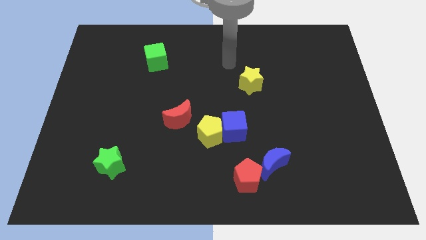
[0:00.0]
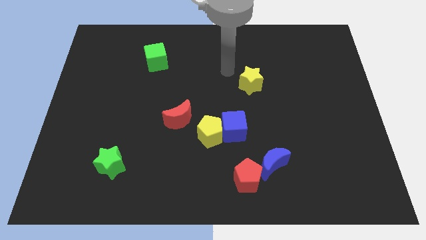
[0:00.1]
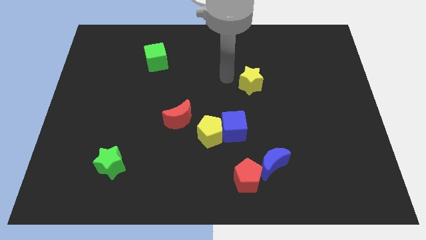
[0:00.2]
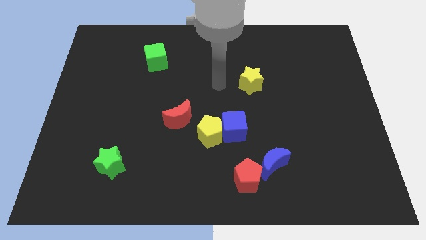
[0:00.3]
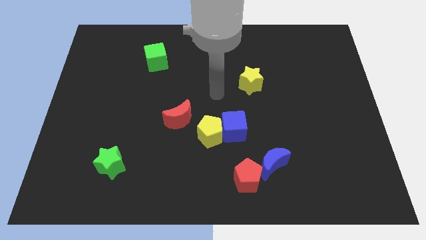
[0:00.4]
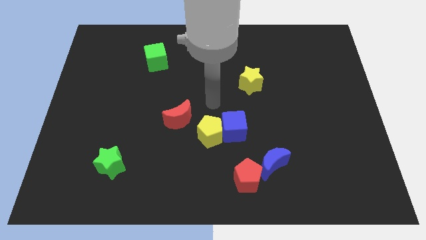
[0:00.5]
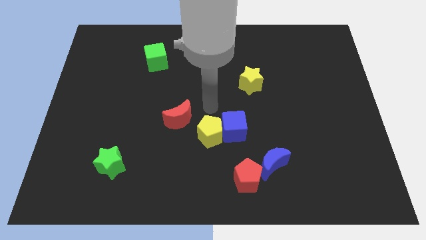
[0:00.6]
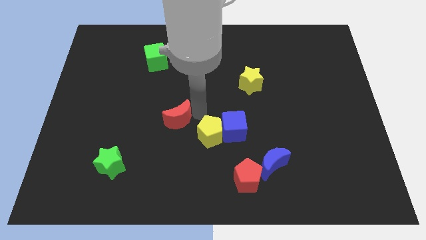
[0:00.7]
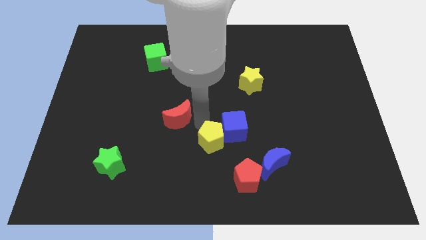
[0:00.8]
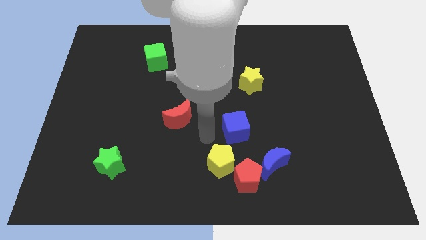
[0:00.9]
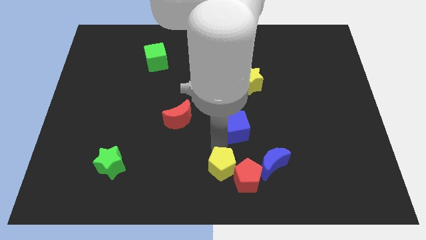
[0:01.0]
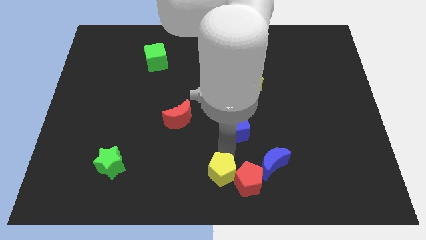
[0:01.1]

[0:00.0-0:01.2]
pull the blue cube apart from the yellow pentagon

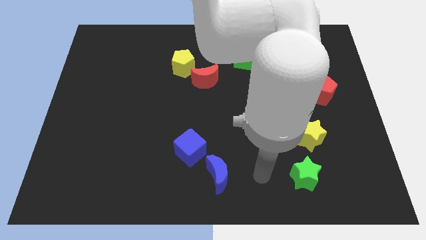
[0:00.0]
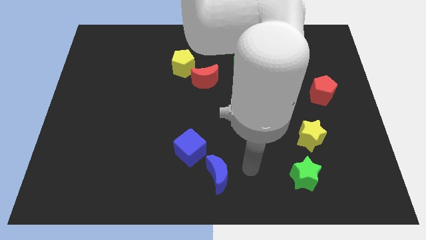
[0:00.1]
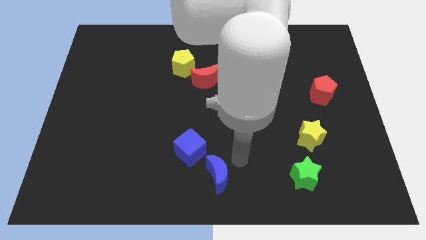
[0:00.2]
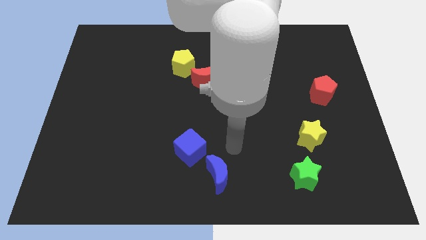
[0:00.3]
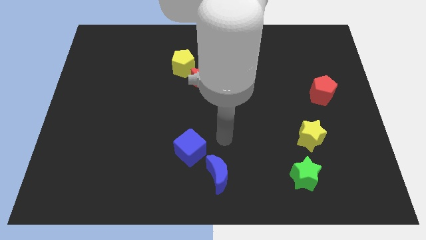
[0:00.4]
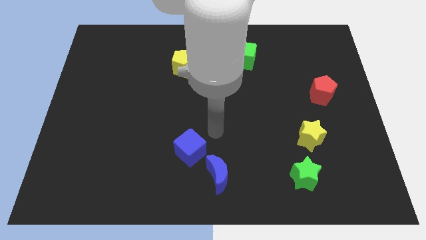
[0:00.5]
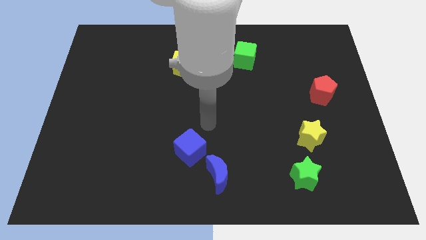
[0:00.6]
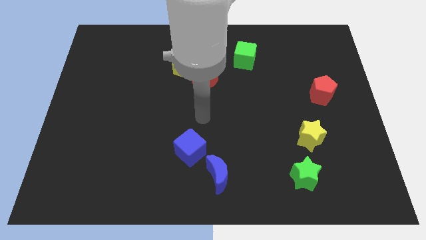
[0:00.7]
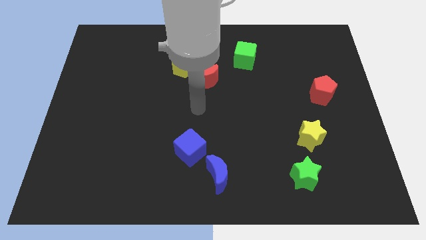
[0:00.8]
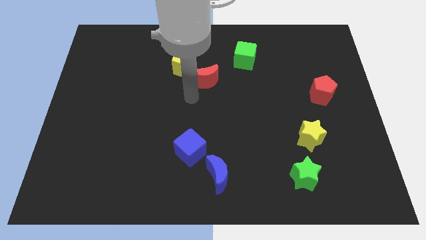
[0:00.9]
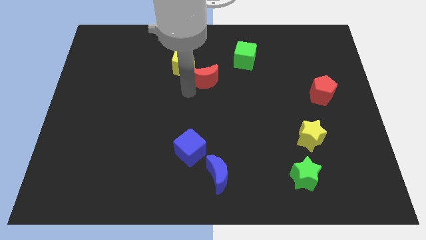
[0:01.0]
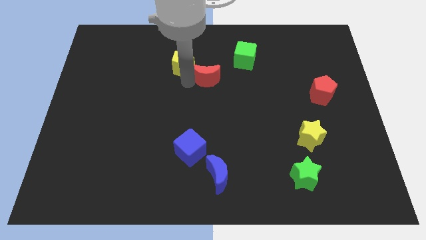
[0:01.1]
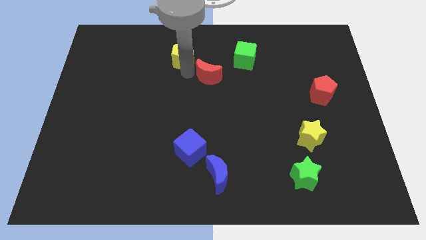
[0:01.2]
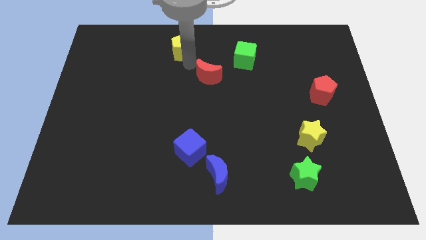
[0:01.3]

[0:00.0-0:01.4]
move the red moon away from the yellow pentagon

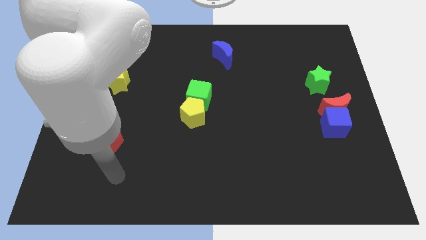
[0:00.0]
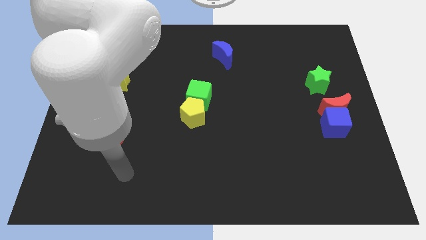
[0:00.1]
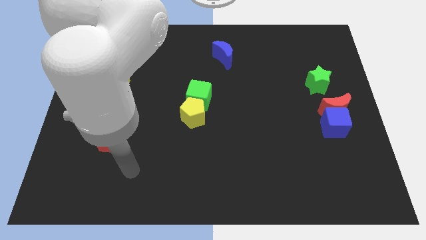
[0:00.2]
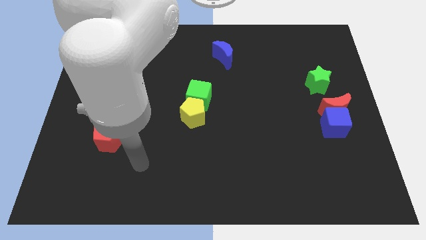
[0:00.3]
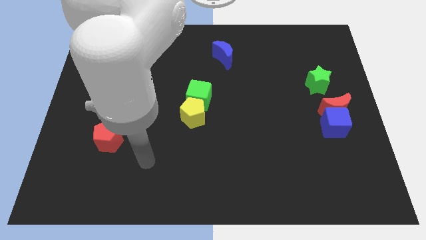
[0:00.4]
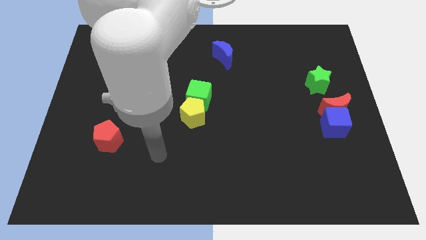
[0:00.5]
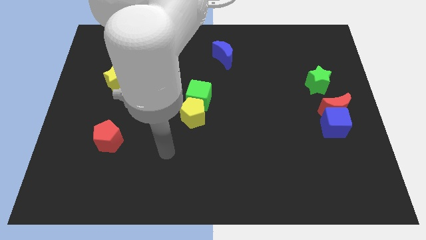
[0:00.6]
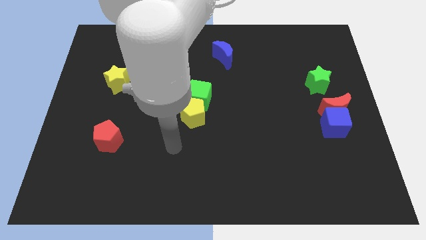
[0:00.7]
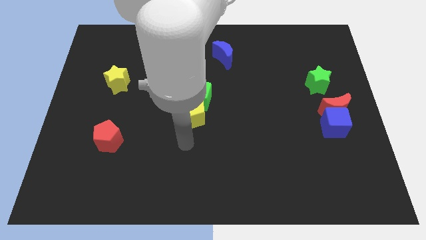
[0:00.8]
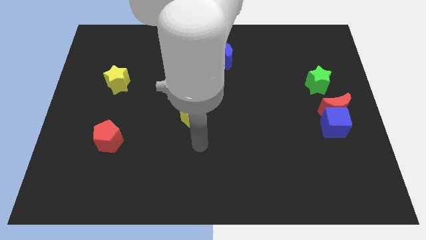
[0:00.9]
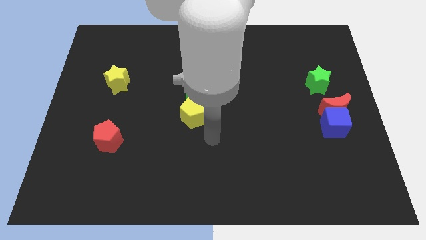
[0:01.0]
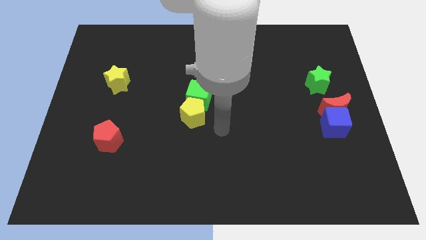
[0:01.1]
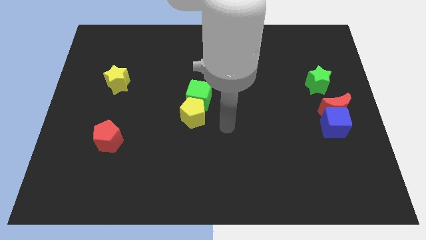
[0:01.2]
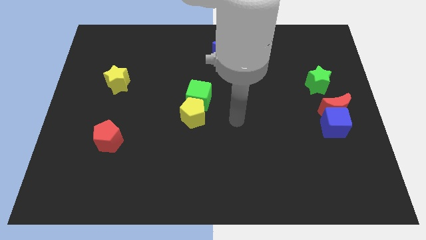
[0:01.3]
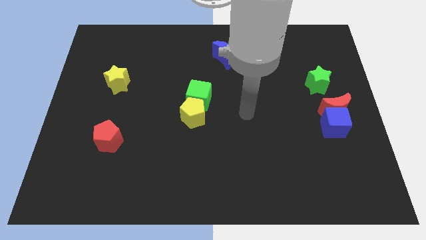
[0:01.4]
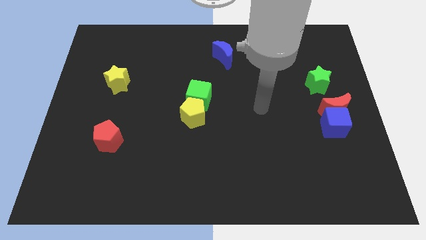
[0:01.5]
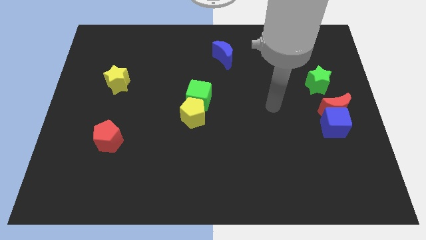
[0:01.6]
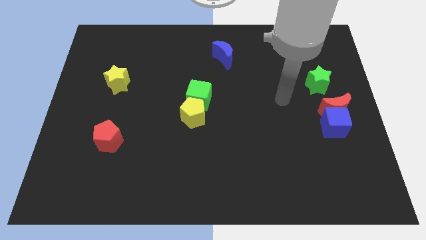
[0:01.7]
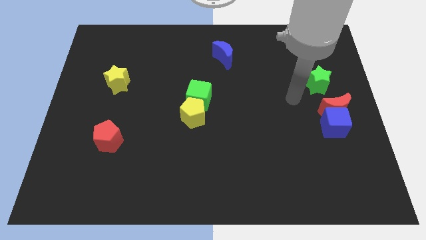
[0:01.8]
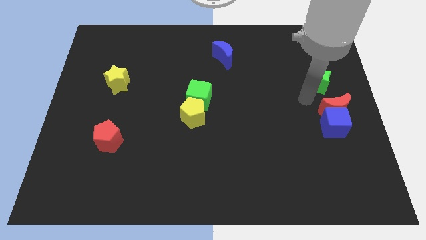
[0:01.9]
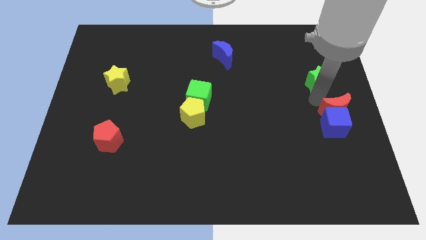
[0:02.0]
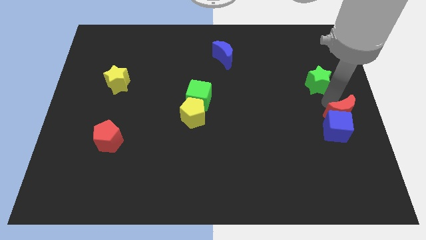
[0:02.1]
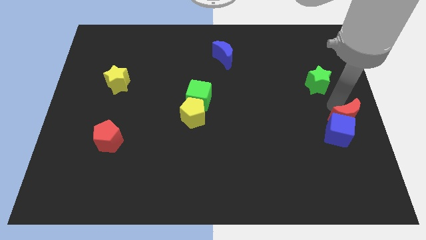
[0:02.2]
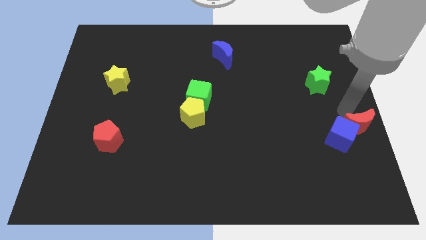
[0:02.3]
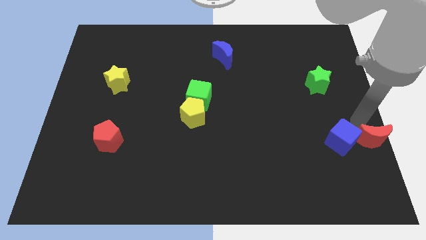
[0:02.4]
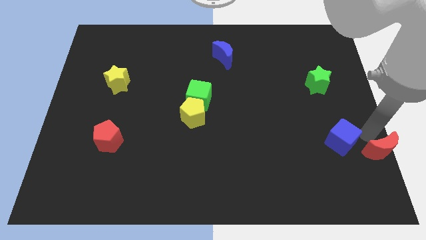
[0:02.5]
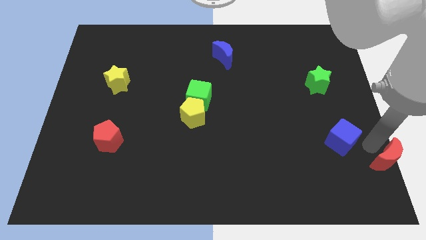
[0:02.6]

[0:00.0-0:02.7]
move the blue cube away from the red moon

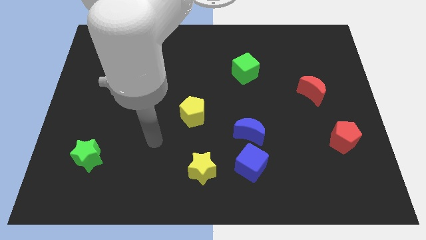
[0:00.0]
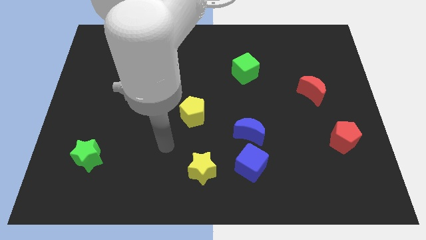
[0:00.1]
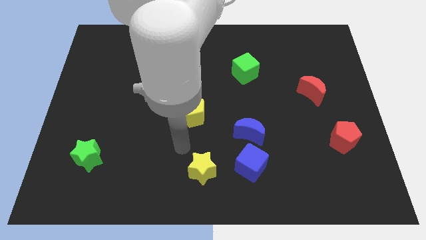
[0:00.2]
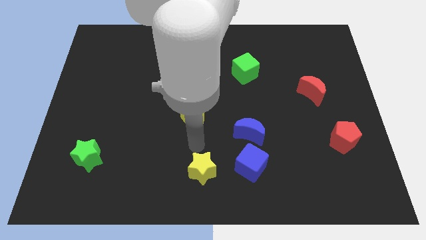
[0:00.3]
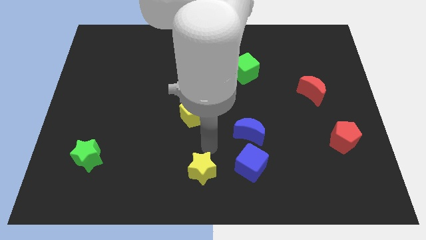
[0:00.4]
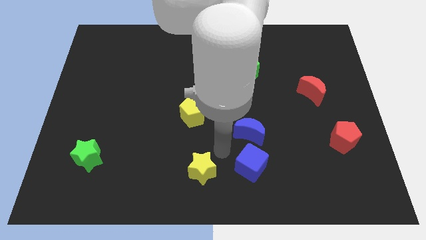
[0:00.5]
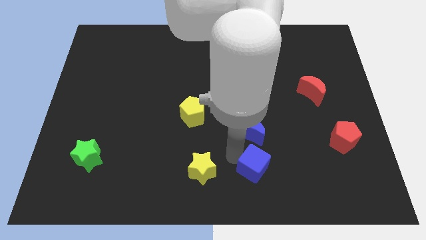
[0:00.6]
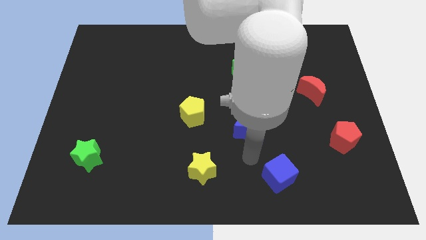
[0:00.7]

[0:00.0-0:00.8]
move the blue moon away from the blue cube

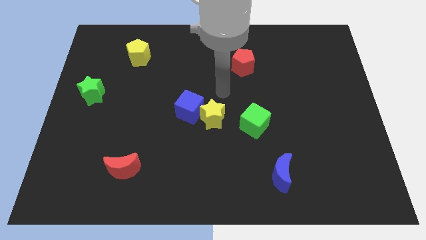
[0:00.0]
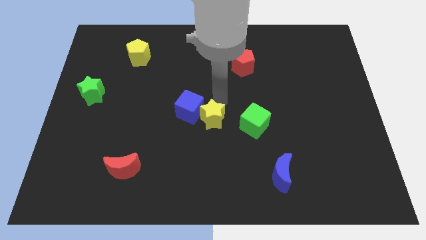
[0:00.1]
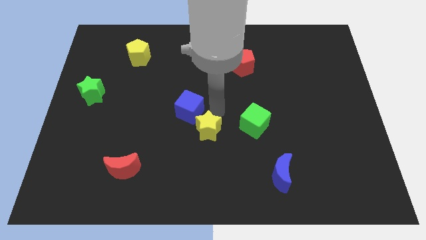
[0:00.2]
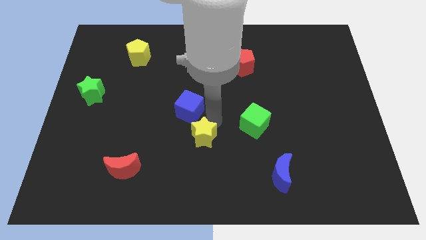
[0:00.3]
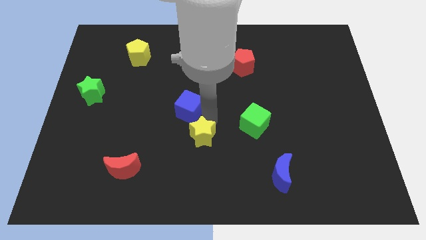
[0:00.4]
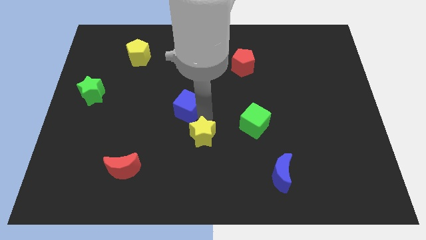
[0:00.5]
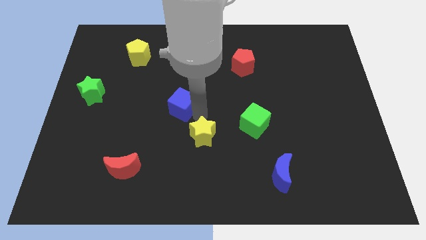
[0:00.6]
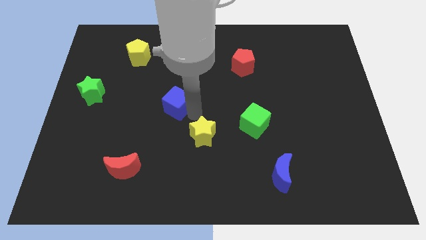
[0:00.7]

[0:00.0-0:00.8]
pull the blue cube apart from the yellow star

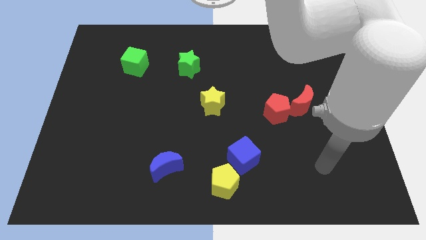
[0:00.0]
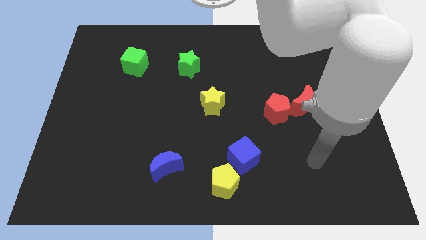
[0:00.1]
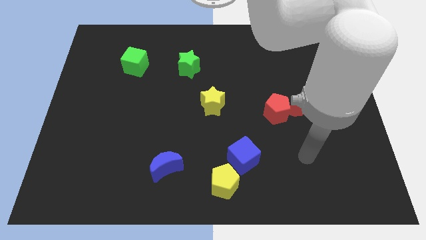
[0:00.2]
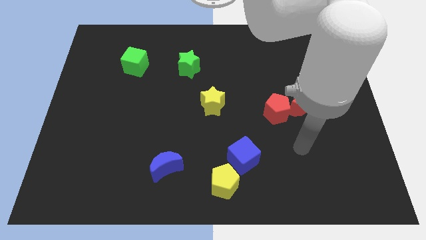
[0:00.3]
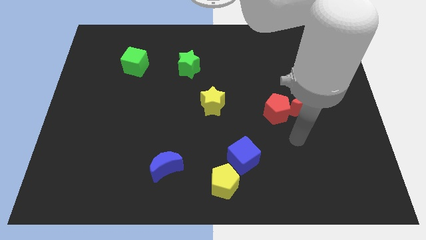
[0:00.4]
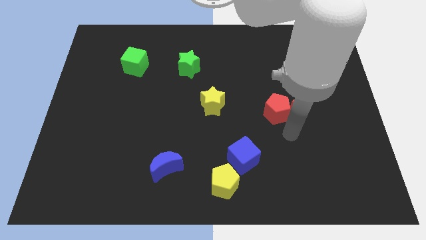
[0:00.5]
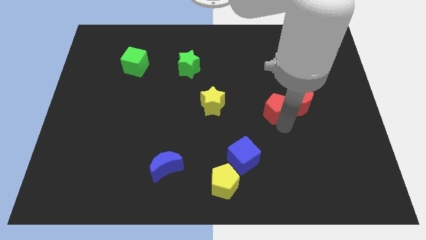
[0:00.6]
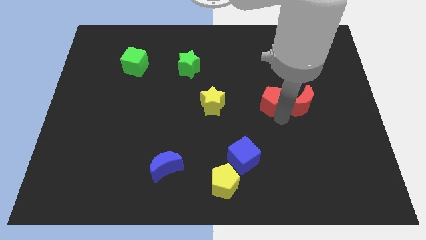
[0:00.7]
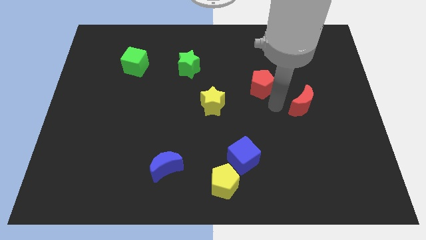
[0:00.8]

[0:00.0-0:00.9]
move the red moon away from the red pentagon

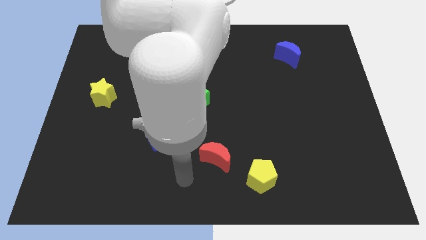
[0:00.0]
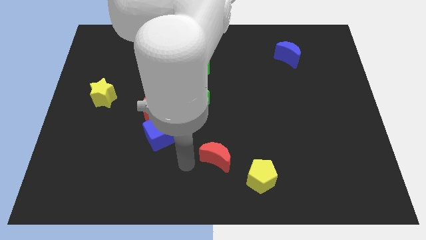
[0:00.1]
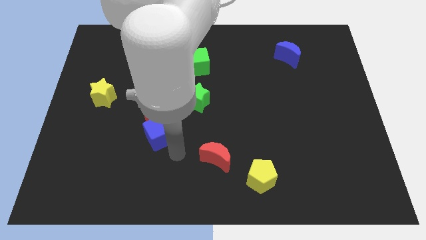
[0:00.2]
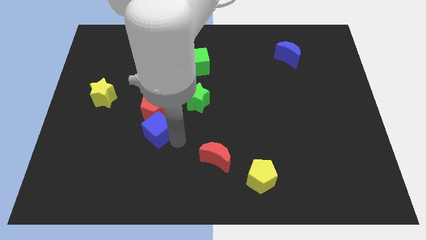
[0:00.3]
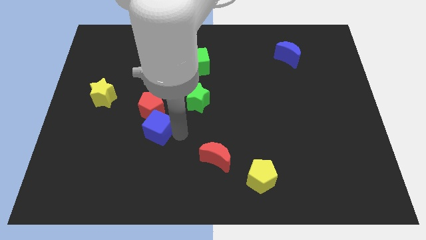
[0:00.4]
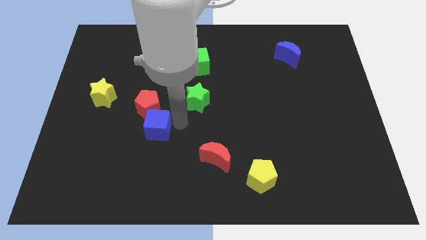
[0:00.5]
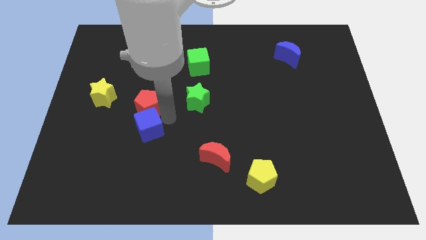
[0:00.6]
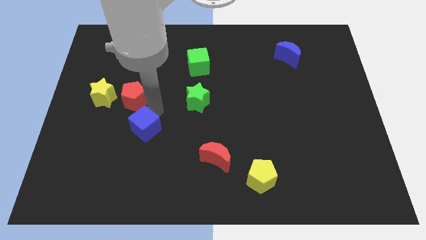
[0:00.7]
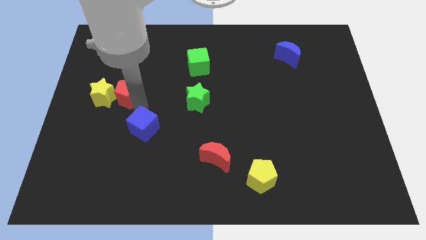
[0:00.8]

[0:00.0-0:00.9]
separate the blue cube from the red pentagon

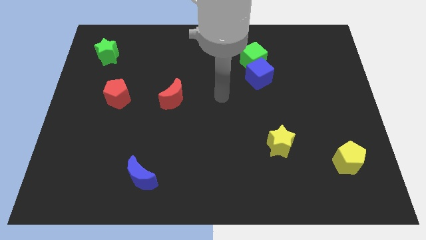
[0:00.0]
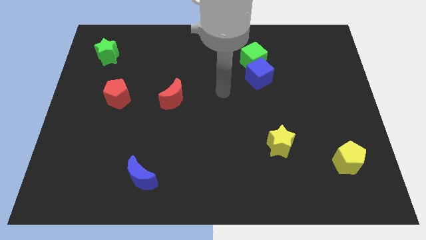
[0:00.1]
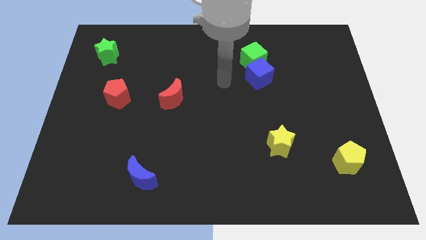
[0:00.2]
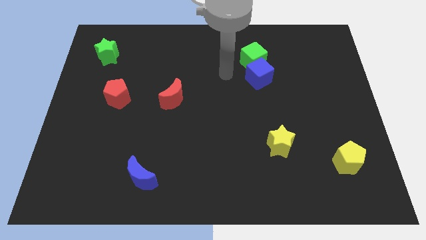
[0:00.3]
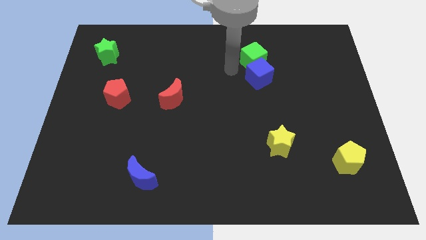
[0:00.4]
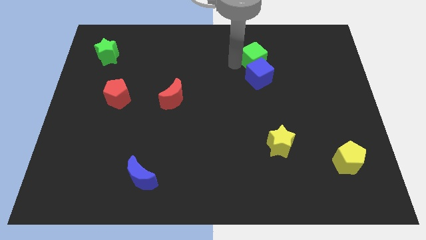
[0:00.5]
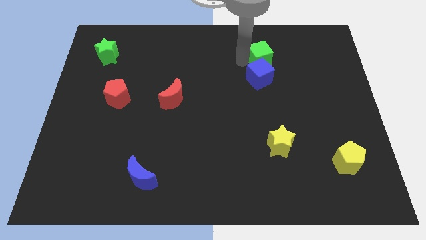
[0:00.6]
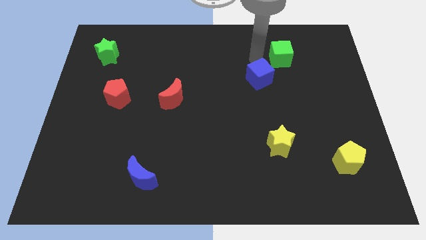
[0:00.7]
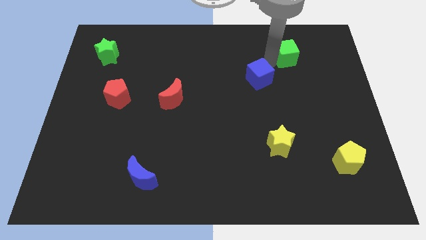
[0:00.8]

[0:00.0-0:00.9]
move the blue cube away from the green cube
